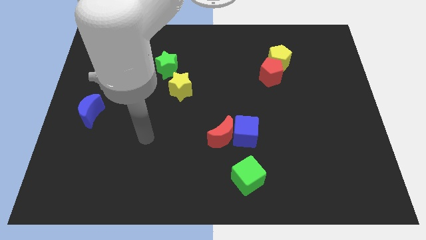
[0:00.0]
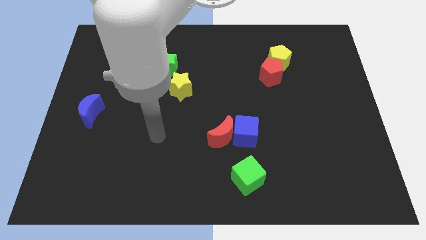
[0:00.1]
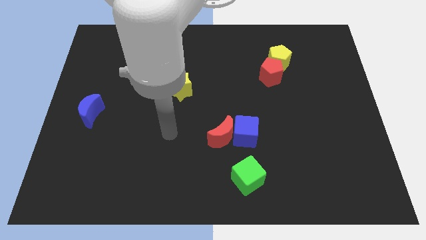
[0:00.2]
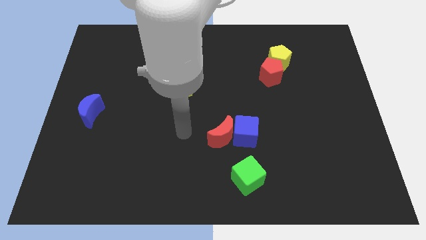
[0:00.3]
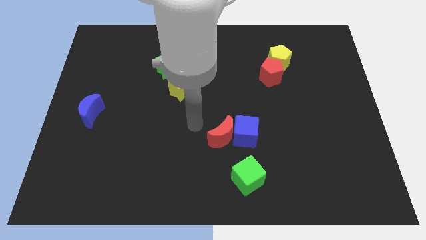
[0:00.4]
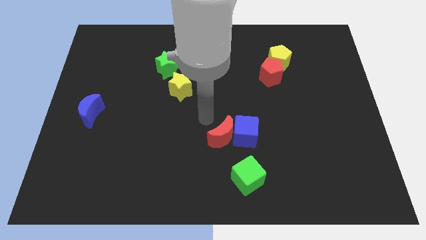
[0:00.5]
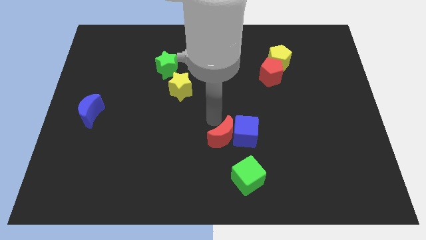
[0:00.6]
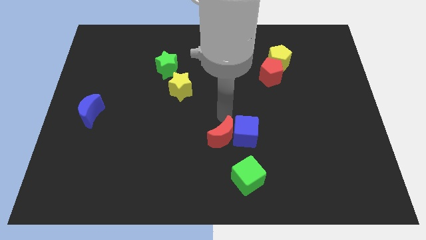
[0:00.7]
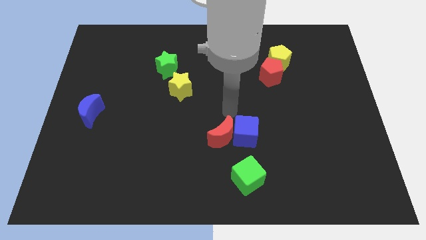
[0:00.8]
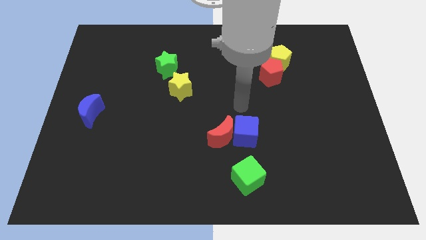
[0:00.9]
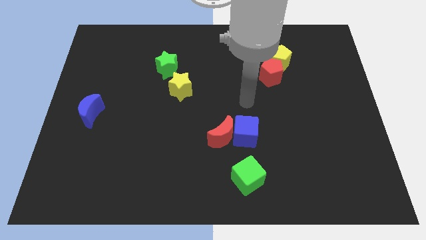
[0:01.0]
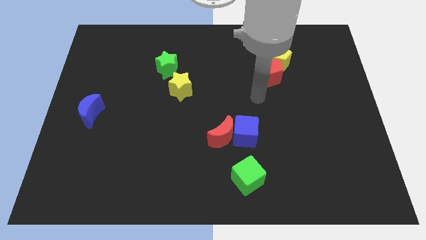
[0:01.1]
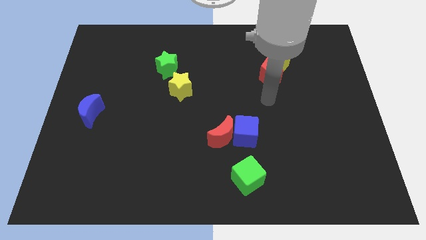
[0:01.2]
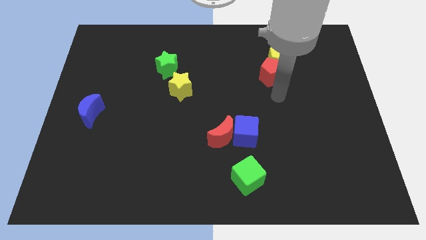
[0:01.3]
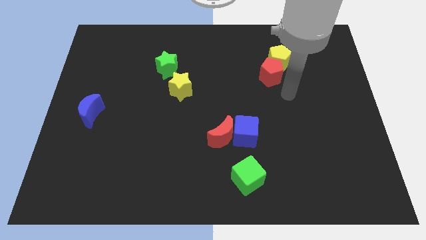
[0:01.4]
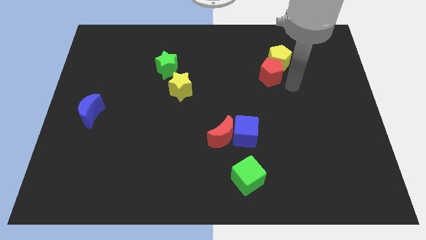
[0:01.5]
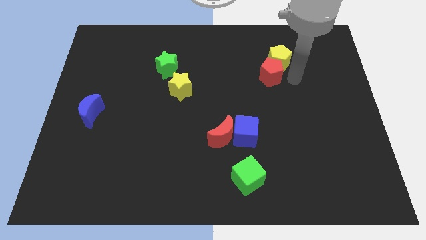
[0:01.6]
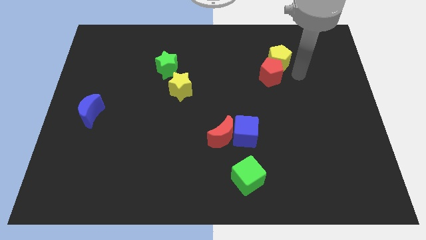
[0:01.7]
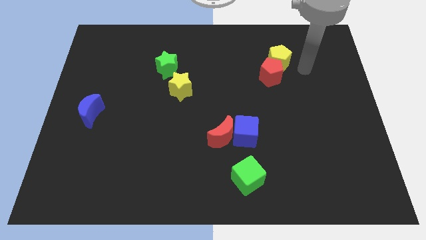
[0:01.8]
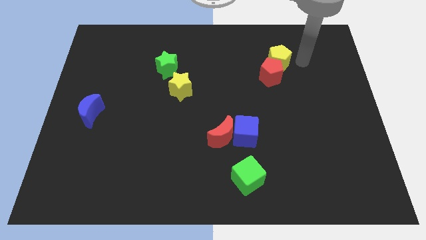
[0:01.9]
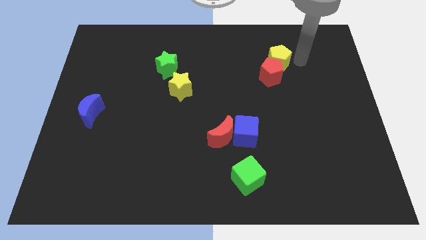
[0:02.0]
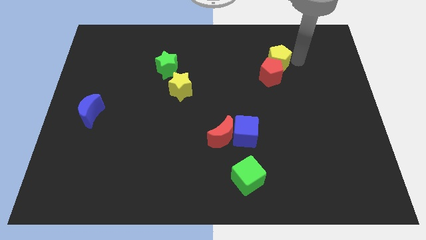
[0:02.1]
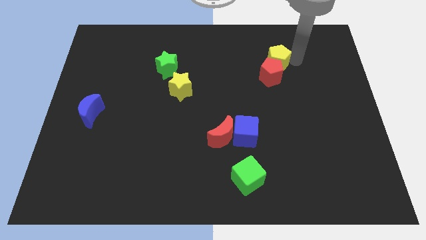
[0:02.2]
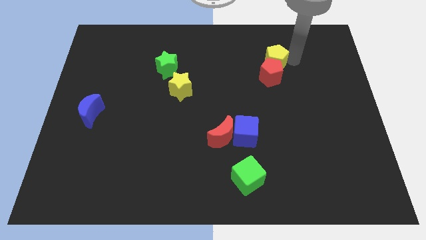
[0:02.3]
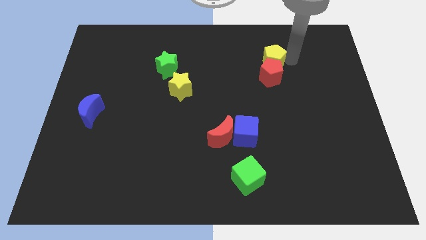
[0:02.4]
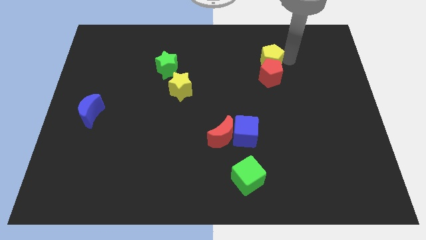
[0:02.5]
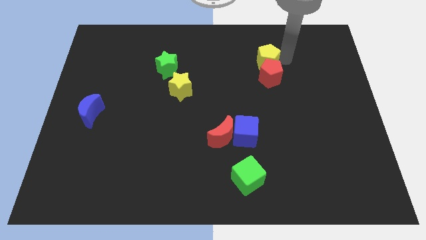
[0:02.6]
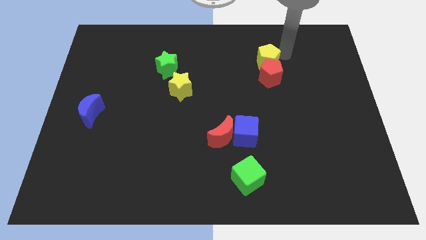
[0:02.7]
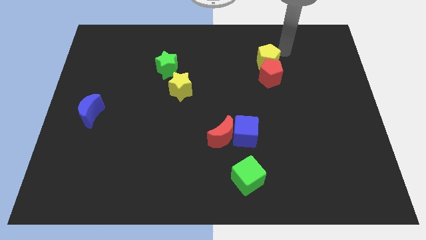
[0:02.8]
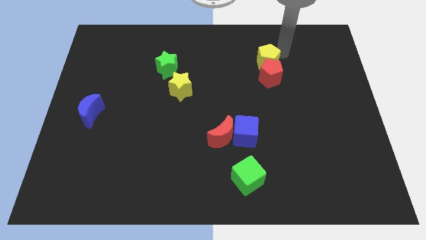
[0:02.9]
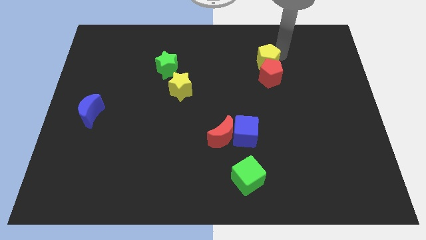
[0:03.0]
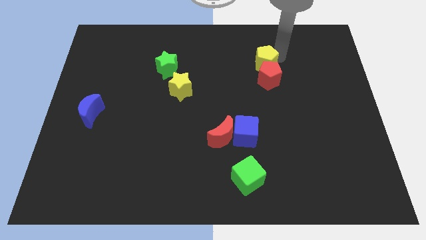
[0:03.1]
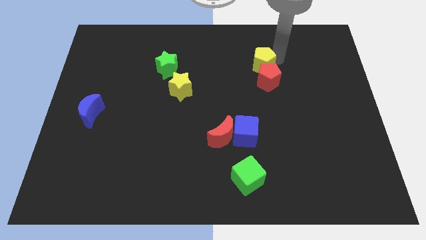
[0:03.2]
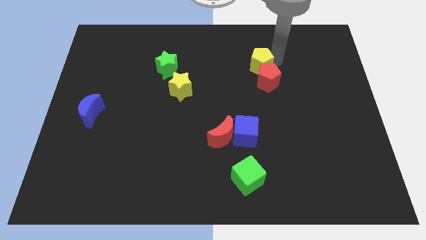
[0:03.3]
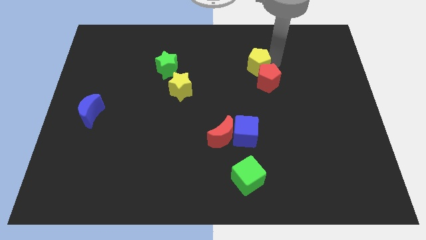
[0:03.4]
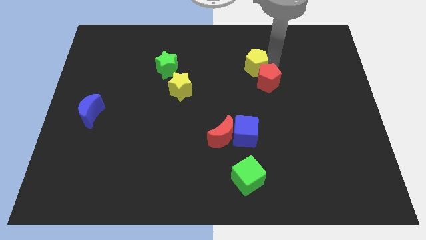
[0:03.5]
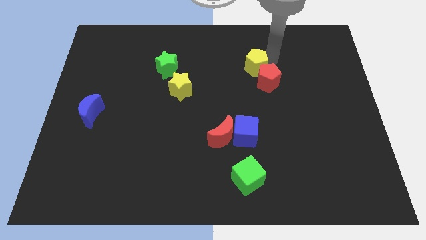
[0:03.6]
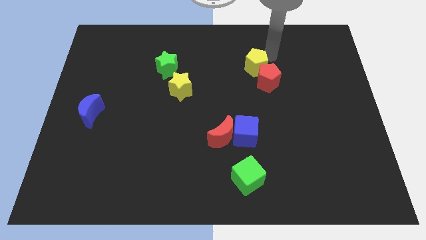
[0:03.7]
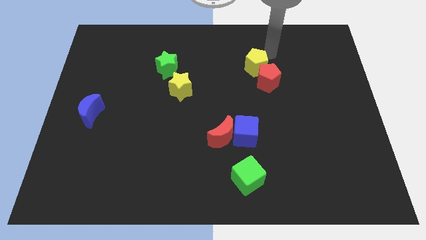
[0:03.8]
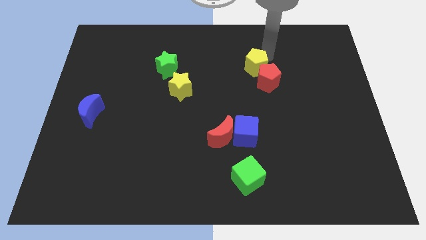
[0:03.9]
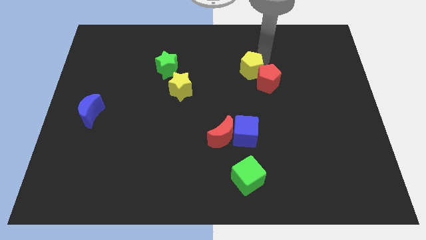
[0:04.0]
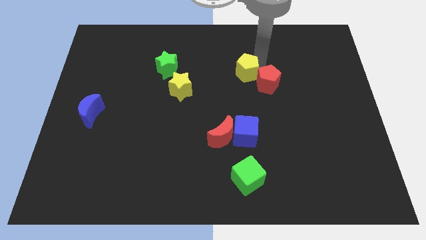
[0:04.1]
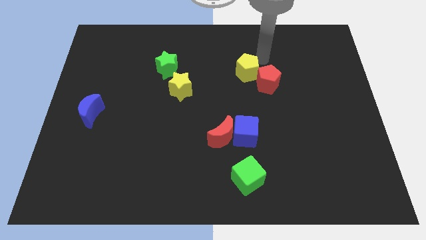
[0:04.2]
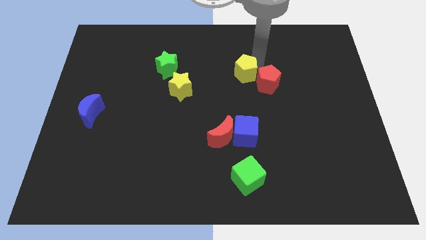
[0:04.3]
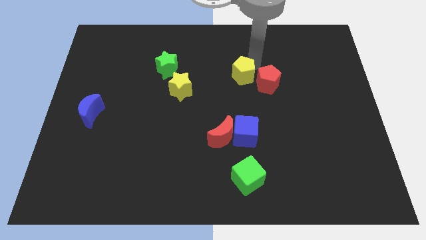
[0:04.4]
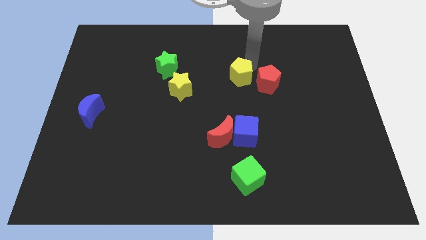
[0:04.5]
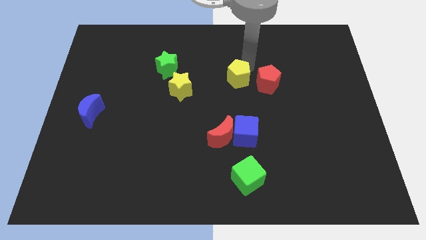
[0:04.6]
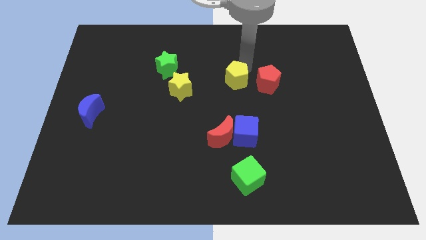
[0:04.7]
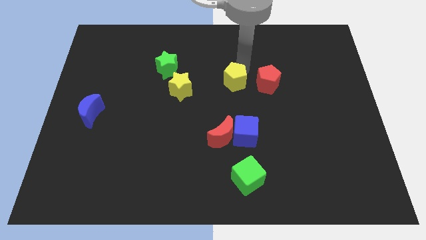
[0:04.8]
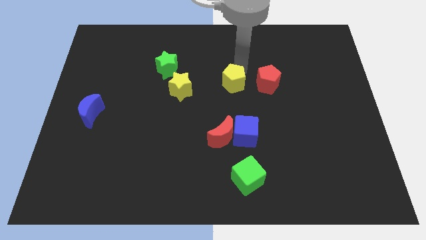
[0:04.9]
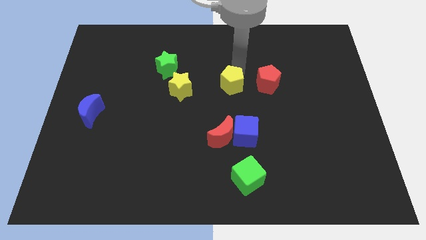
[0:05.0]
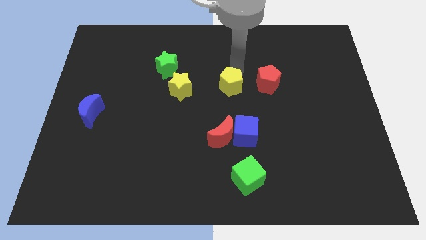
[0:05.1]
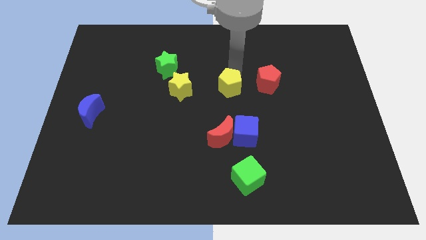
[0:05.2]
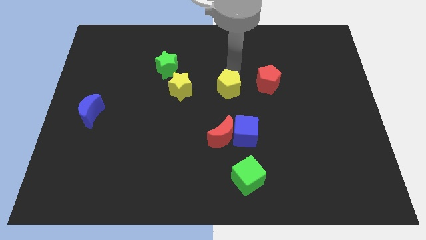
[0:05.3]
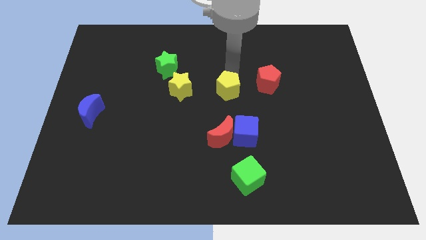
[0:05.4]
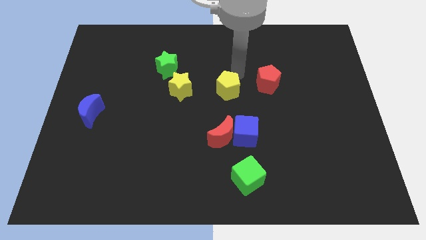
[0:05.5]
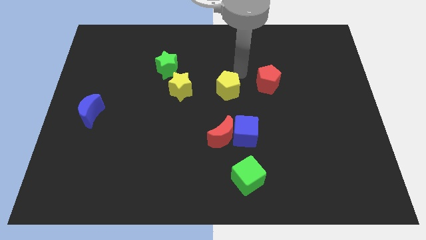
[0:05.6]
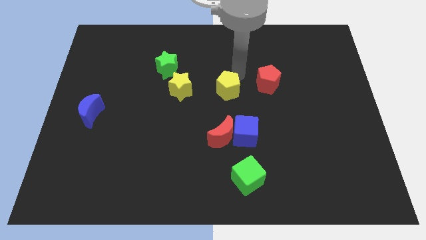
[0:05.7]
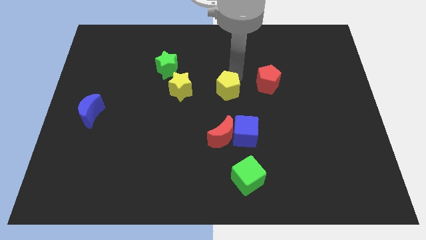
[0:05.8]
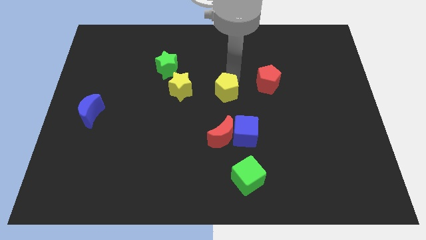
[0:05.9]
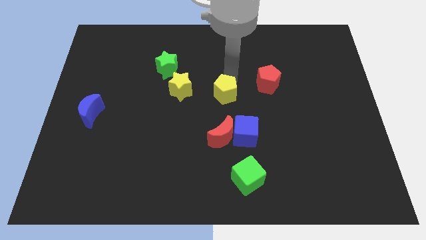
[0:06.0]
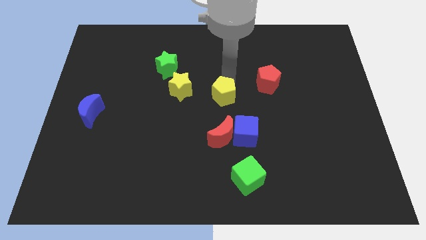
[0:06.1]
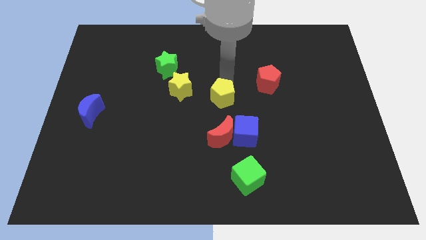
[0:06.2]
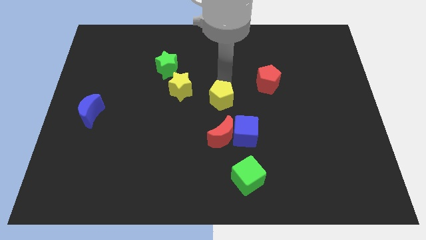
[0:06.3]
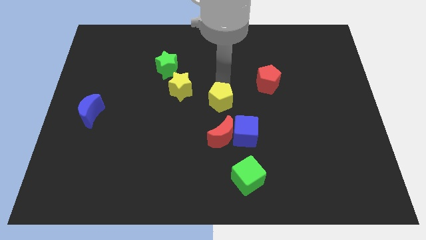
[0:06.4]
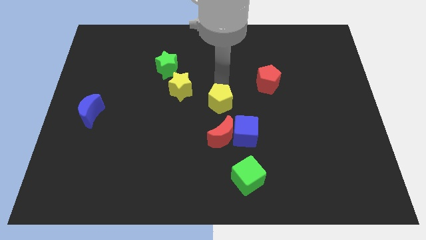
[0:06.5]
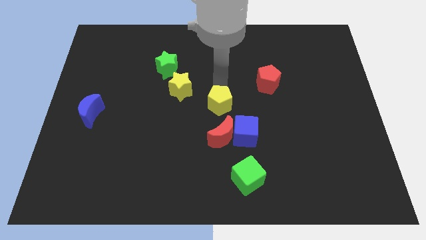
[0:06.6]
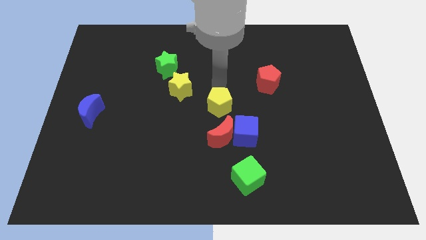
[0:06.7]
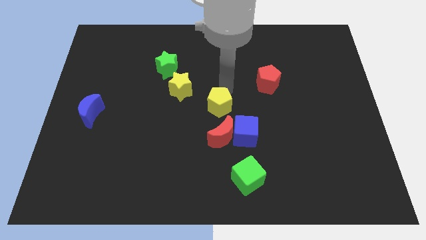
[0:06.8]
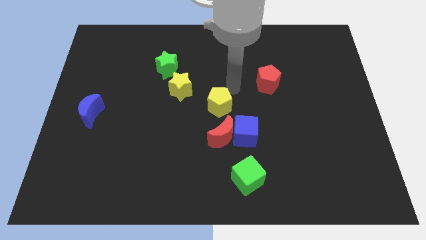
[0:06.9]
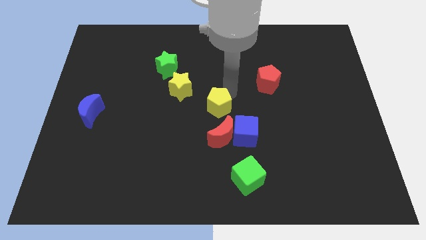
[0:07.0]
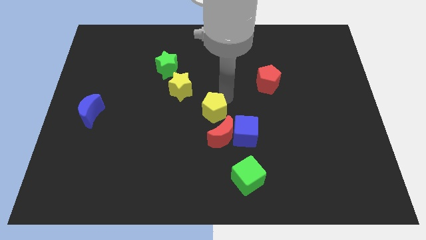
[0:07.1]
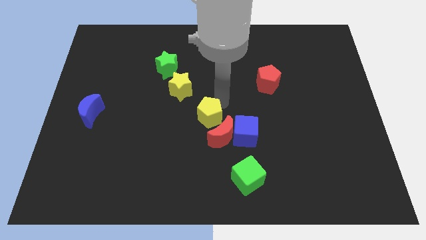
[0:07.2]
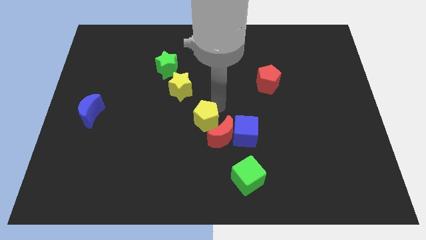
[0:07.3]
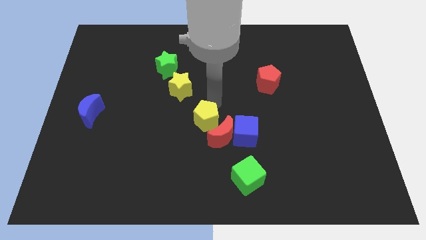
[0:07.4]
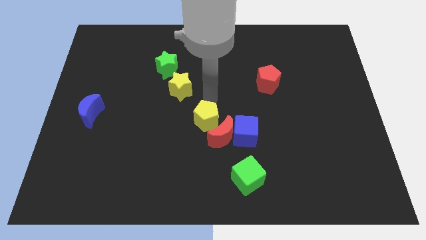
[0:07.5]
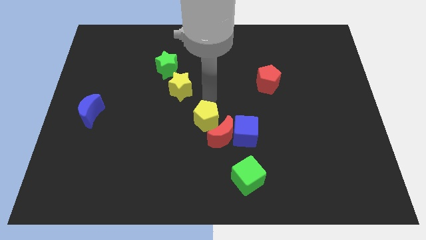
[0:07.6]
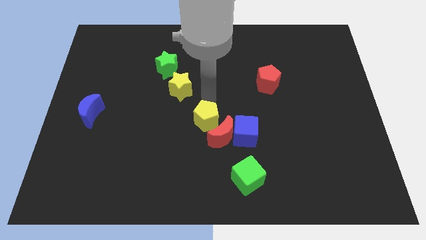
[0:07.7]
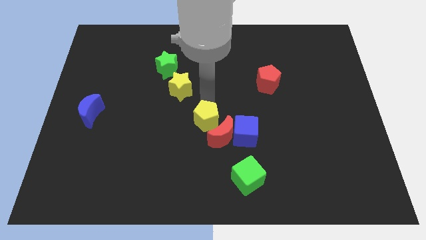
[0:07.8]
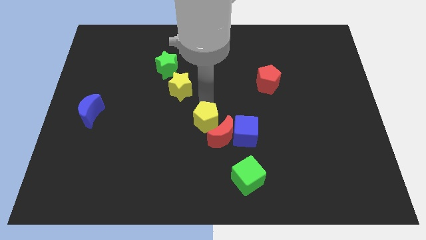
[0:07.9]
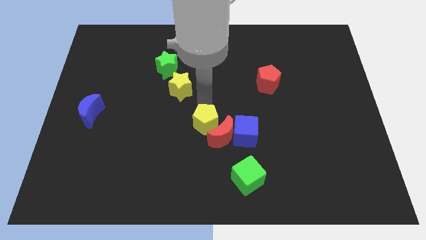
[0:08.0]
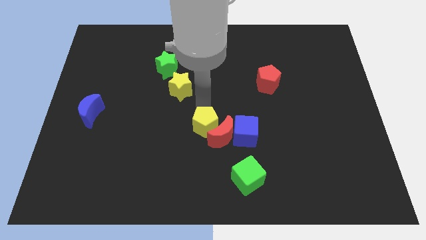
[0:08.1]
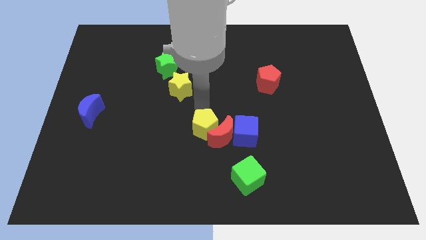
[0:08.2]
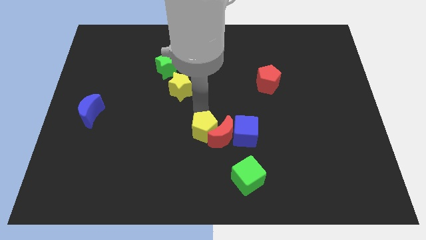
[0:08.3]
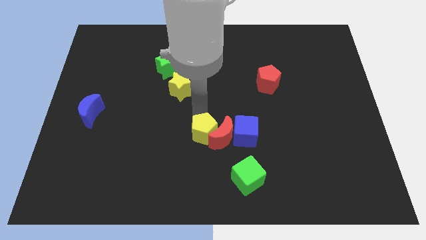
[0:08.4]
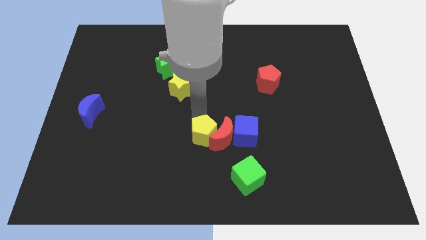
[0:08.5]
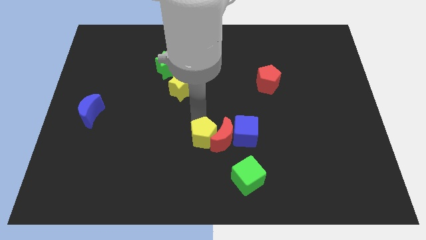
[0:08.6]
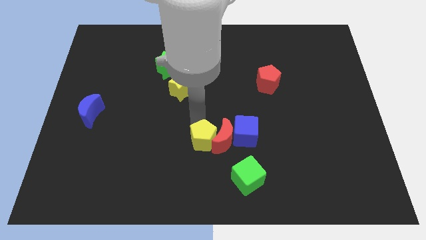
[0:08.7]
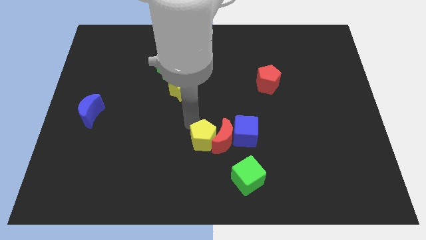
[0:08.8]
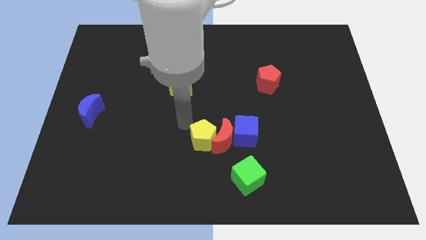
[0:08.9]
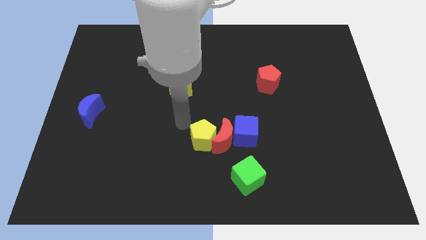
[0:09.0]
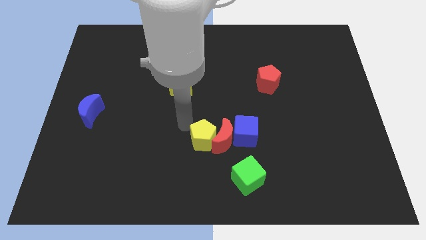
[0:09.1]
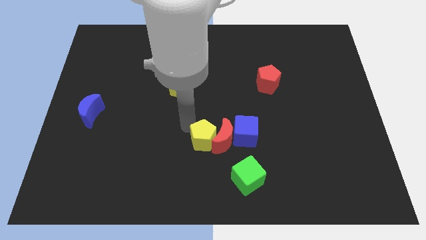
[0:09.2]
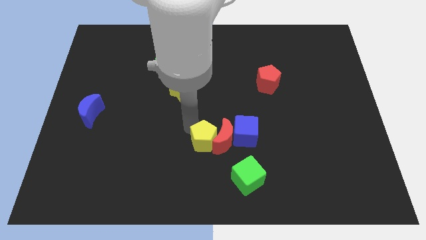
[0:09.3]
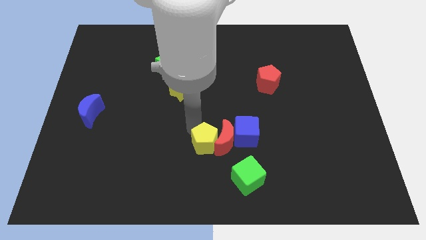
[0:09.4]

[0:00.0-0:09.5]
push the yellow pentagon to the bottom left side of the blue cube
